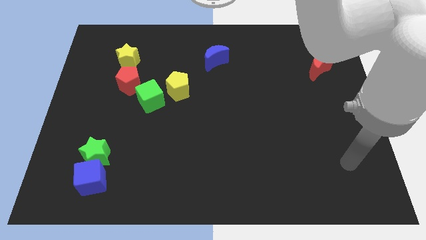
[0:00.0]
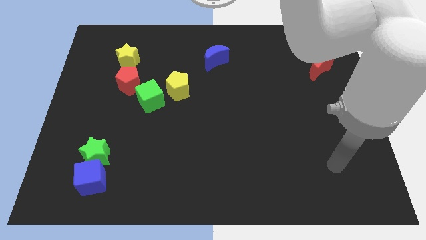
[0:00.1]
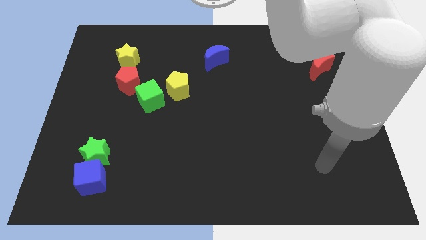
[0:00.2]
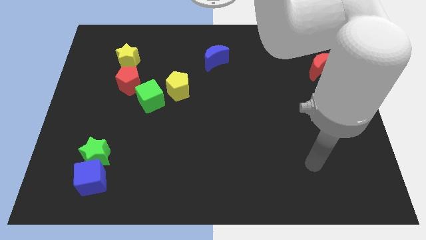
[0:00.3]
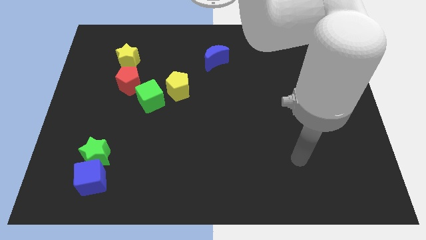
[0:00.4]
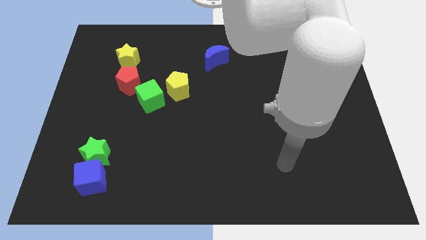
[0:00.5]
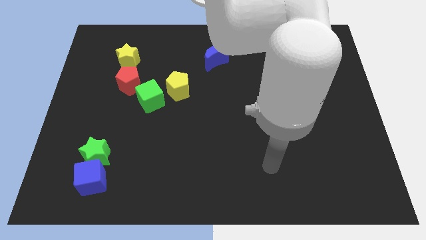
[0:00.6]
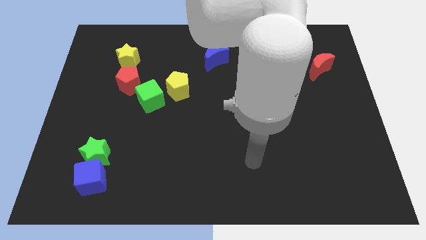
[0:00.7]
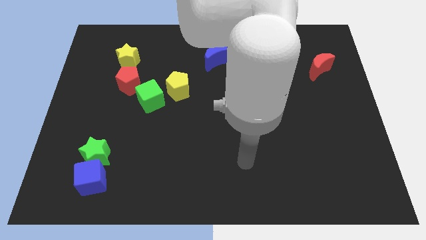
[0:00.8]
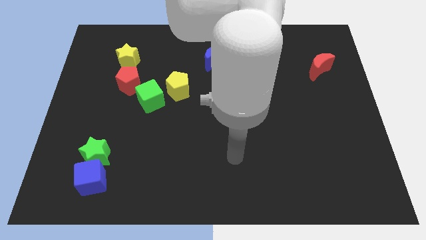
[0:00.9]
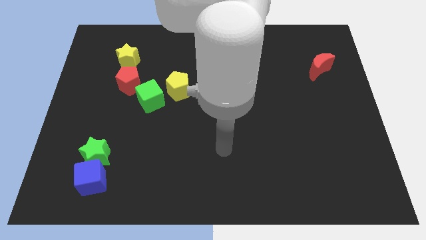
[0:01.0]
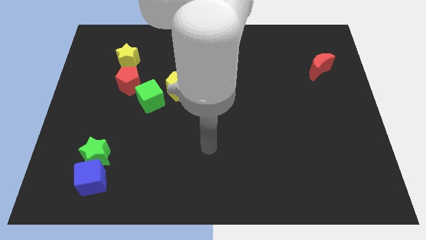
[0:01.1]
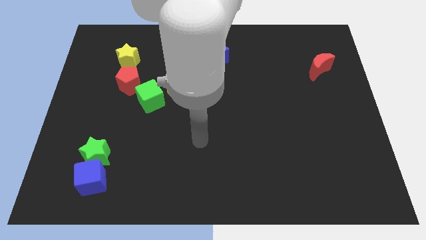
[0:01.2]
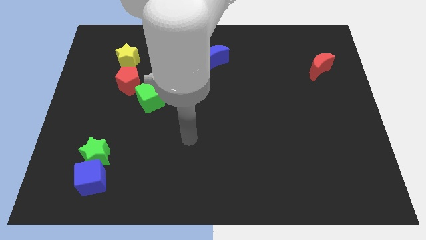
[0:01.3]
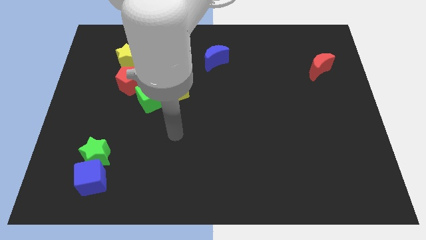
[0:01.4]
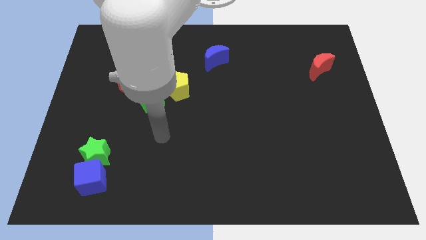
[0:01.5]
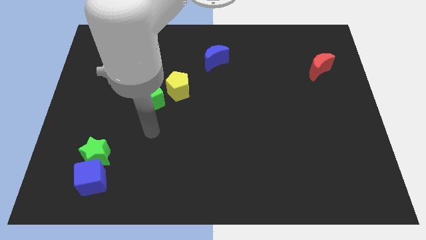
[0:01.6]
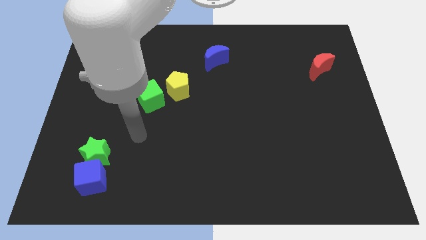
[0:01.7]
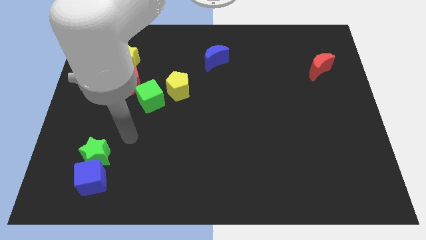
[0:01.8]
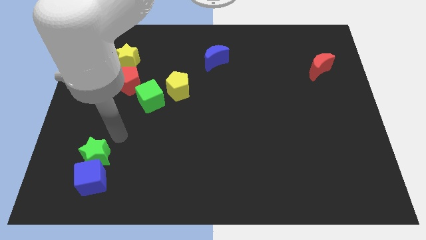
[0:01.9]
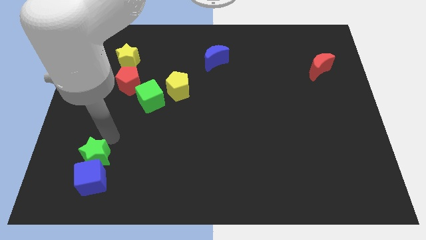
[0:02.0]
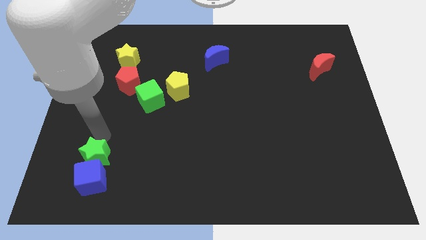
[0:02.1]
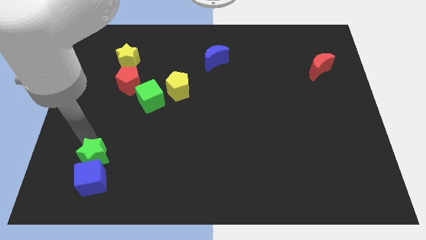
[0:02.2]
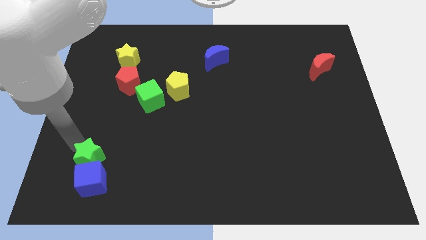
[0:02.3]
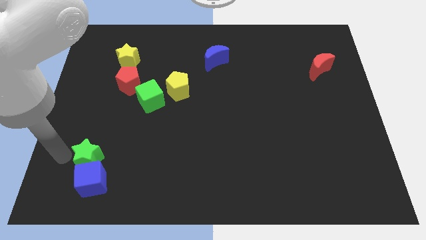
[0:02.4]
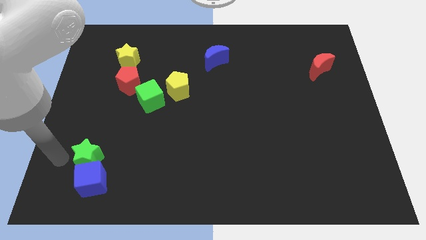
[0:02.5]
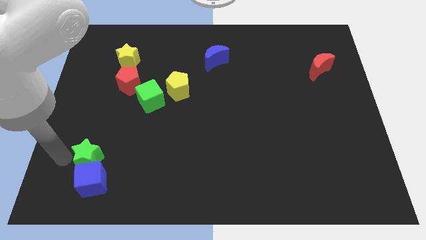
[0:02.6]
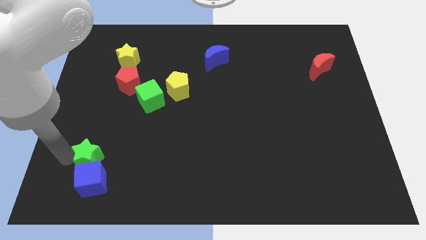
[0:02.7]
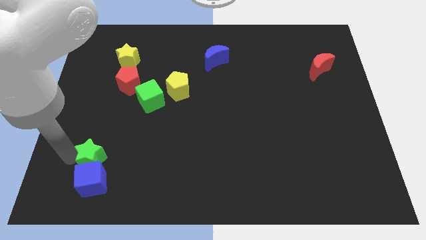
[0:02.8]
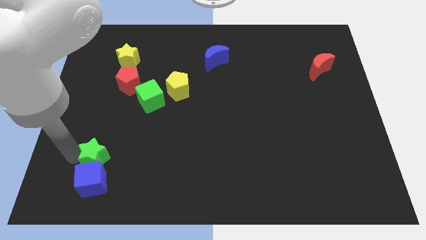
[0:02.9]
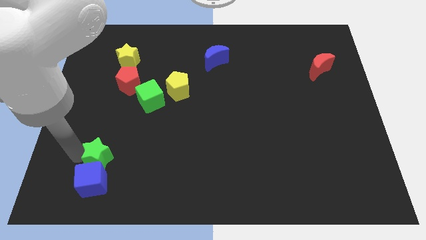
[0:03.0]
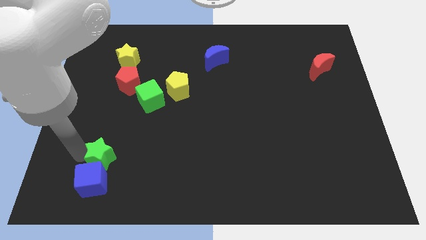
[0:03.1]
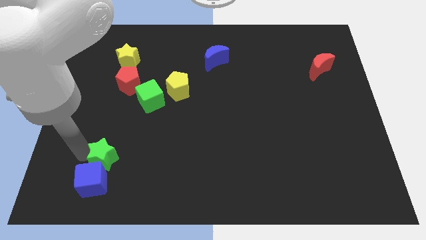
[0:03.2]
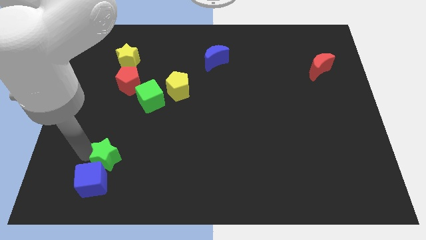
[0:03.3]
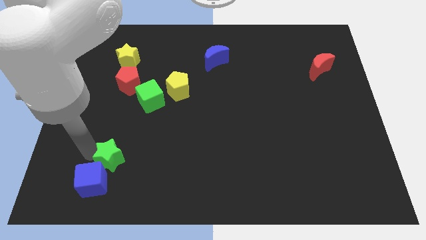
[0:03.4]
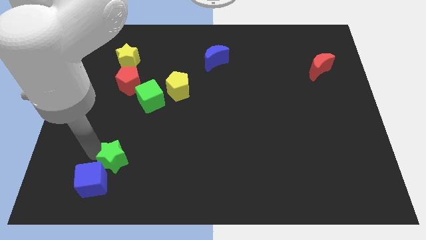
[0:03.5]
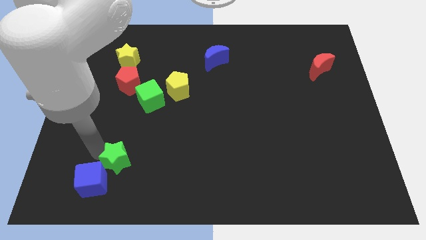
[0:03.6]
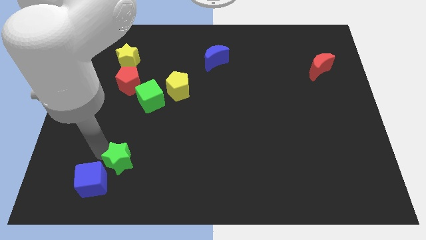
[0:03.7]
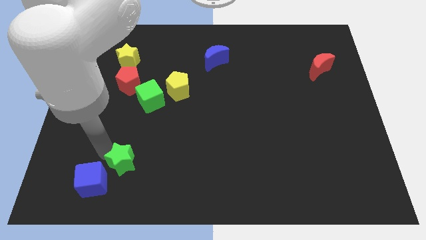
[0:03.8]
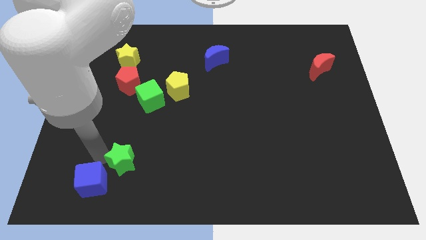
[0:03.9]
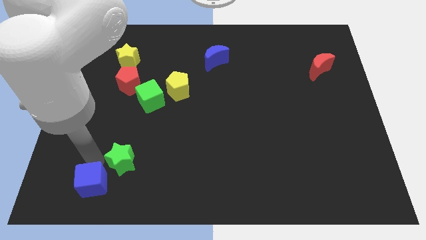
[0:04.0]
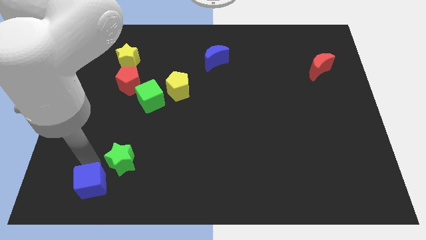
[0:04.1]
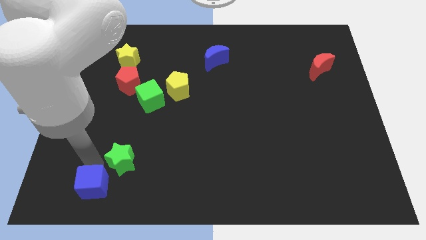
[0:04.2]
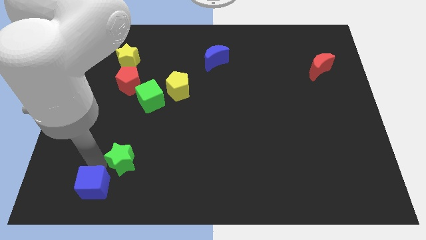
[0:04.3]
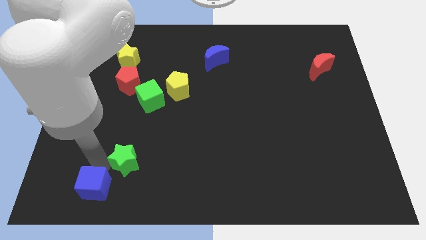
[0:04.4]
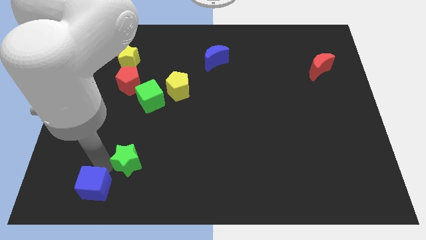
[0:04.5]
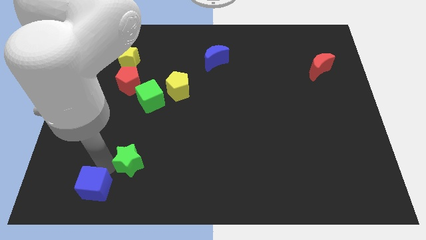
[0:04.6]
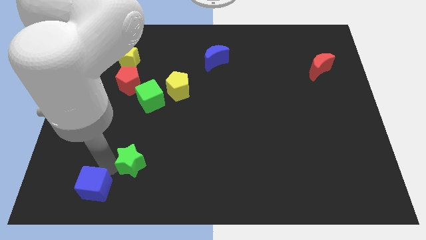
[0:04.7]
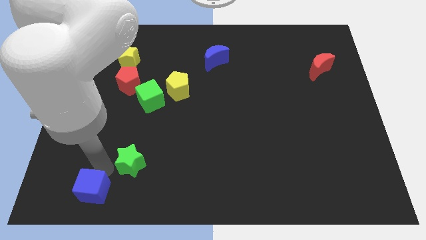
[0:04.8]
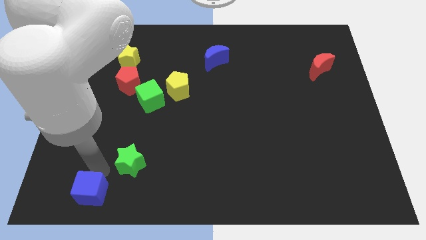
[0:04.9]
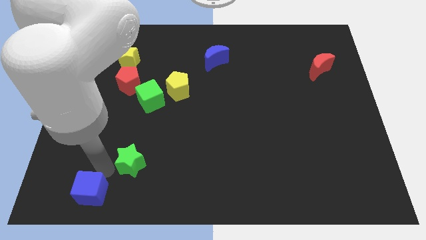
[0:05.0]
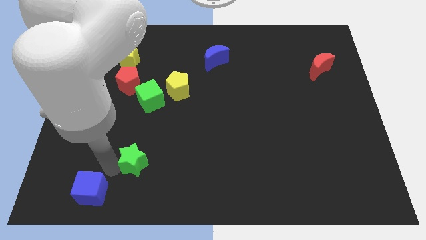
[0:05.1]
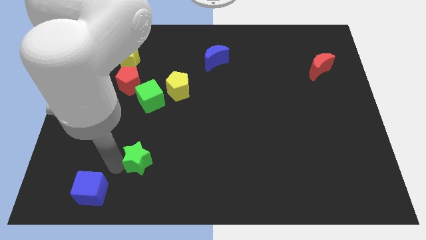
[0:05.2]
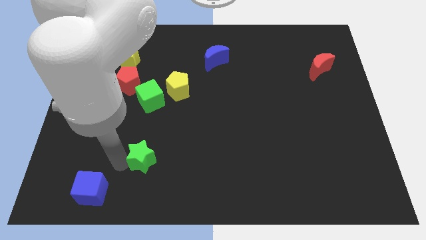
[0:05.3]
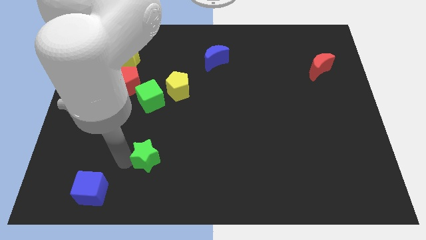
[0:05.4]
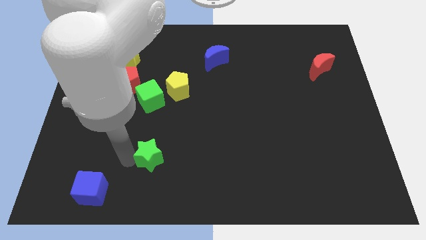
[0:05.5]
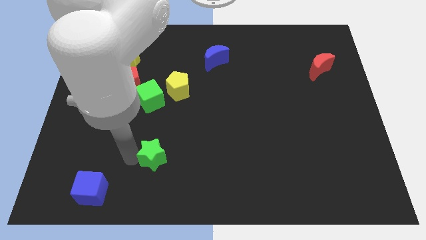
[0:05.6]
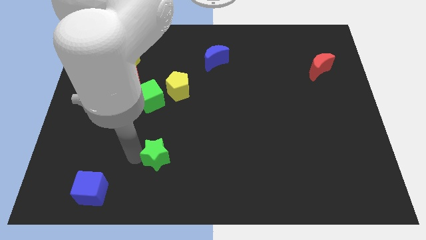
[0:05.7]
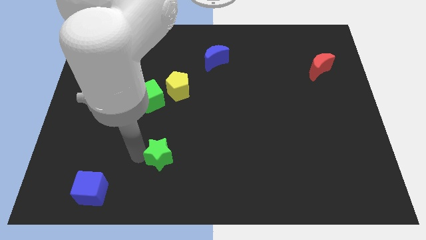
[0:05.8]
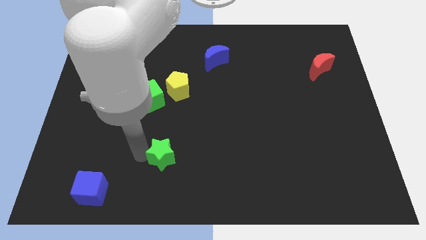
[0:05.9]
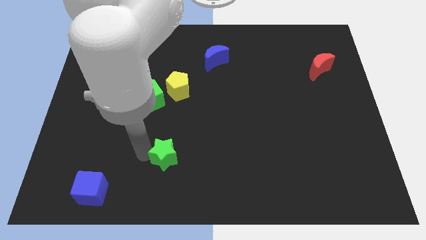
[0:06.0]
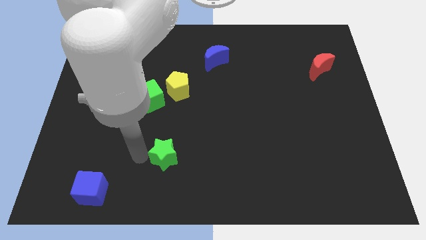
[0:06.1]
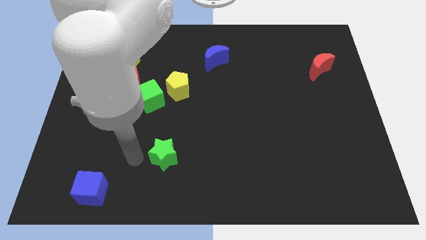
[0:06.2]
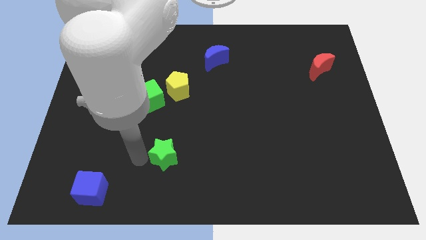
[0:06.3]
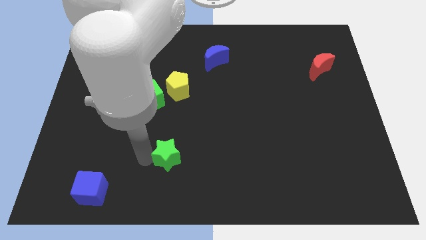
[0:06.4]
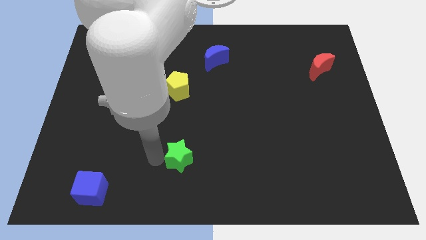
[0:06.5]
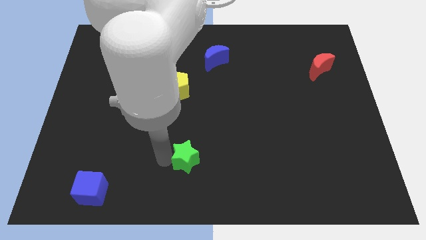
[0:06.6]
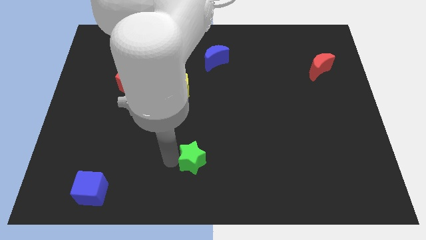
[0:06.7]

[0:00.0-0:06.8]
slide the green star right

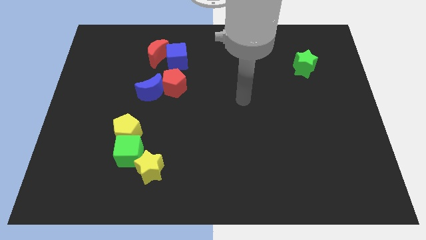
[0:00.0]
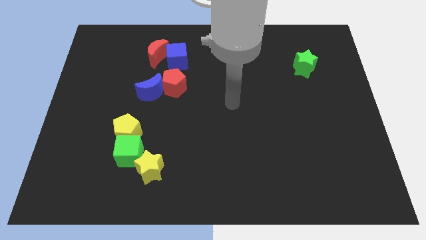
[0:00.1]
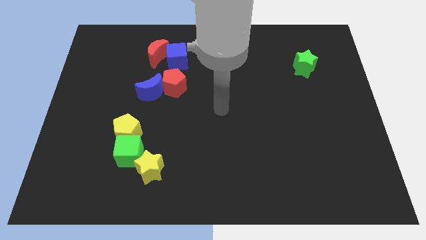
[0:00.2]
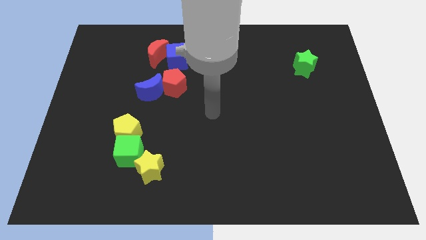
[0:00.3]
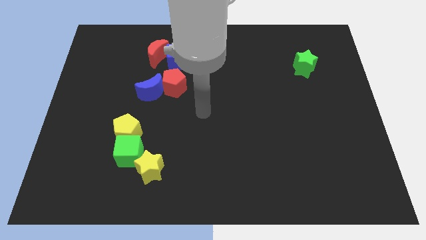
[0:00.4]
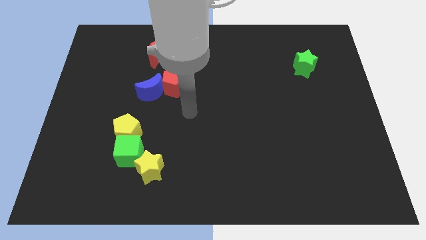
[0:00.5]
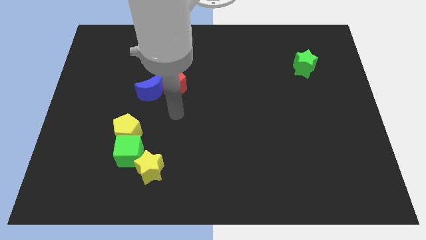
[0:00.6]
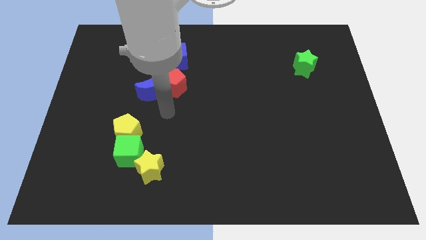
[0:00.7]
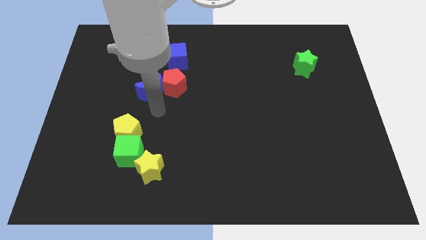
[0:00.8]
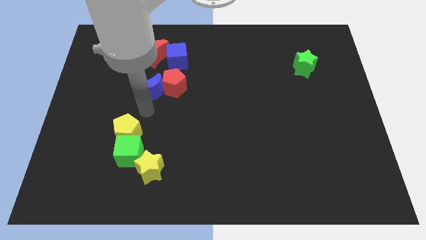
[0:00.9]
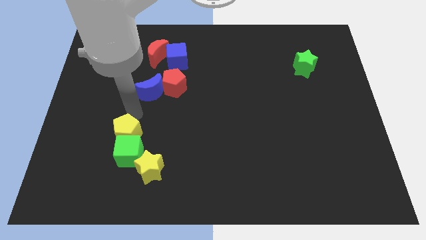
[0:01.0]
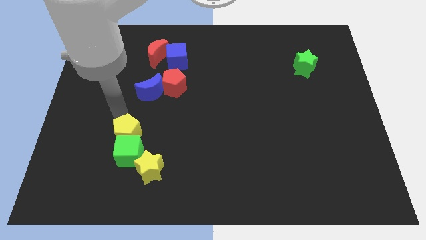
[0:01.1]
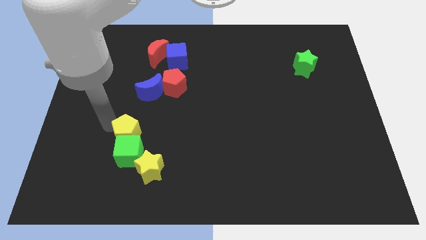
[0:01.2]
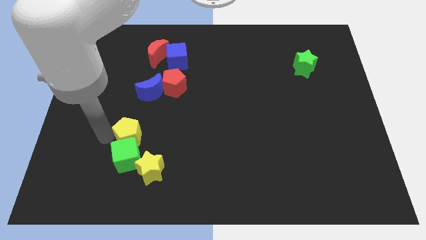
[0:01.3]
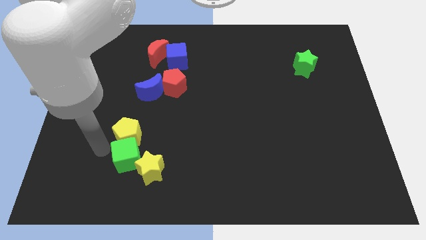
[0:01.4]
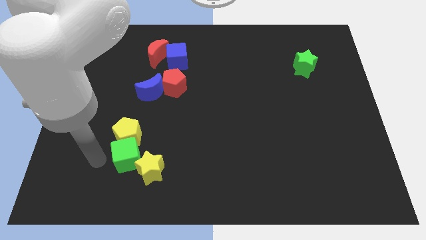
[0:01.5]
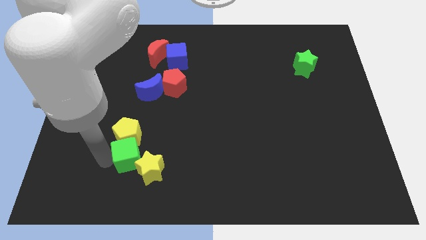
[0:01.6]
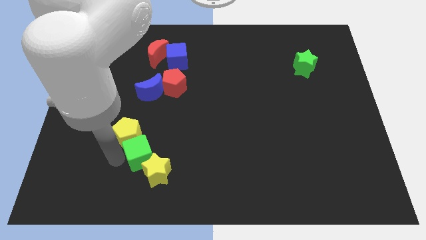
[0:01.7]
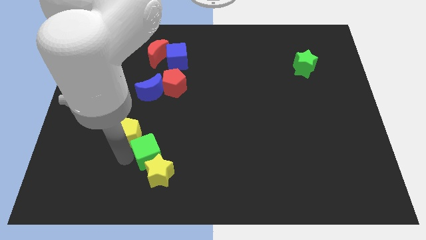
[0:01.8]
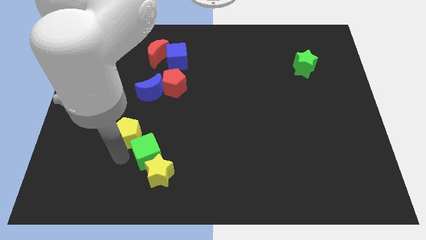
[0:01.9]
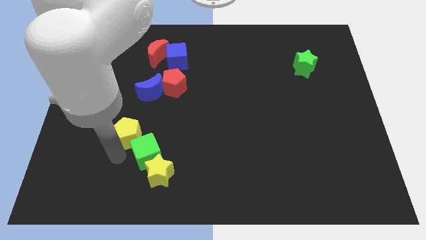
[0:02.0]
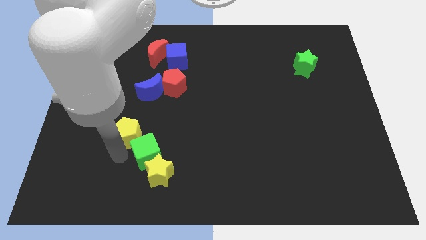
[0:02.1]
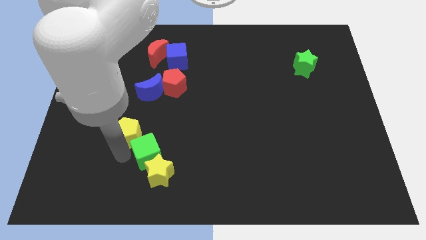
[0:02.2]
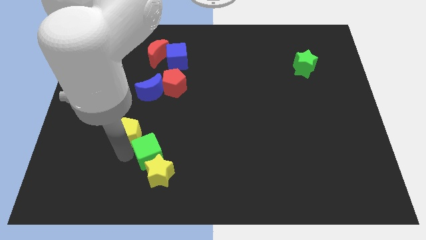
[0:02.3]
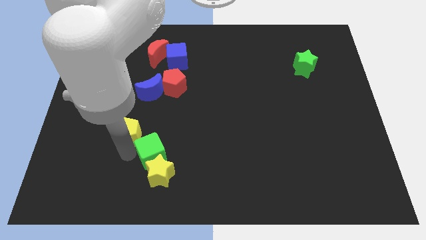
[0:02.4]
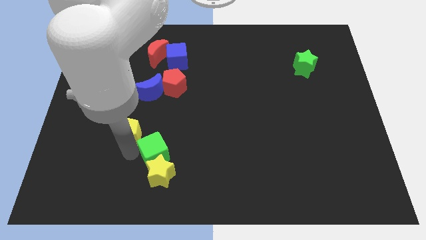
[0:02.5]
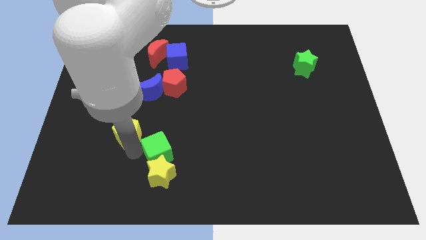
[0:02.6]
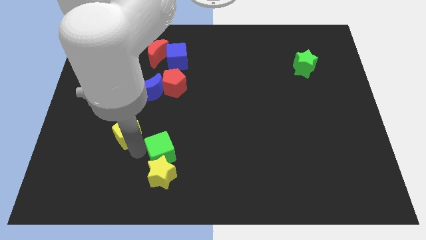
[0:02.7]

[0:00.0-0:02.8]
slightly slide the green cube right
